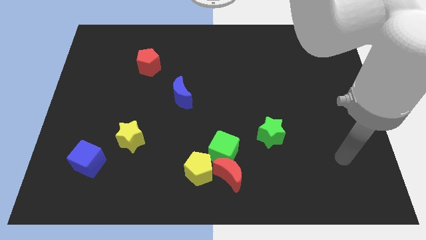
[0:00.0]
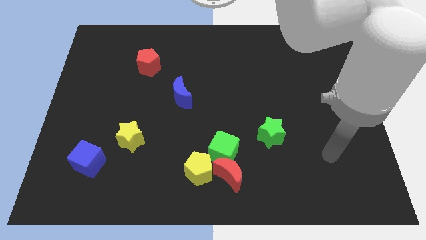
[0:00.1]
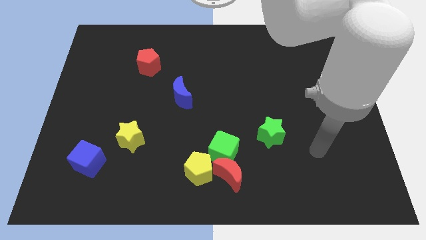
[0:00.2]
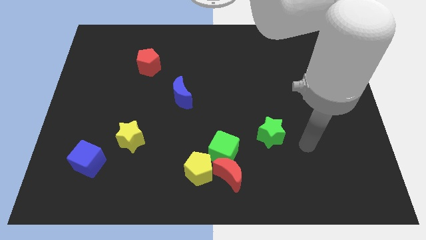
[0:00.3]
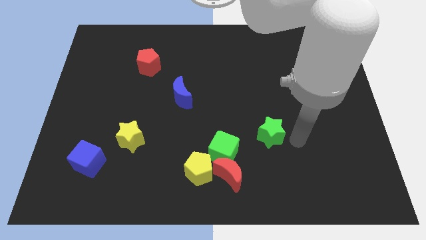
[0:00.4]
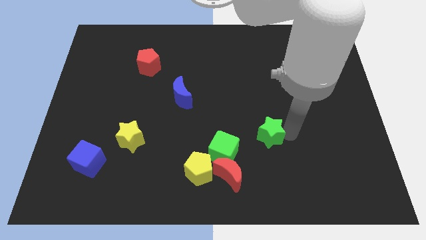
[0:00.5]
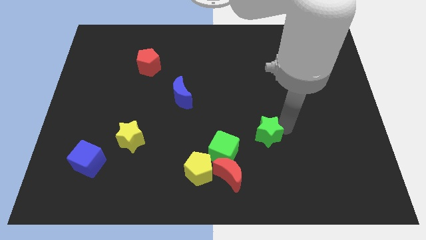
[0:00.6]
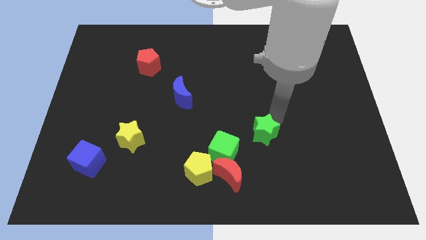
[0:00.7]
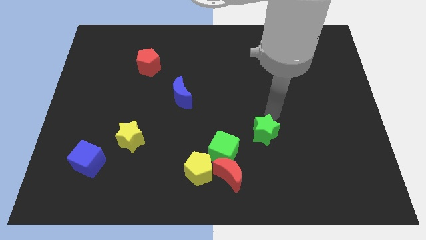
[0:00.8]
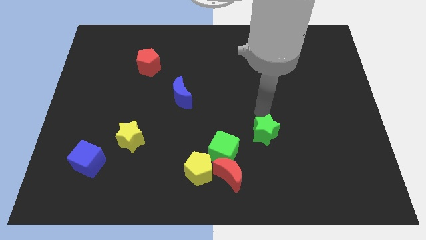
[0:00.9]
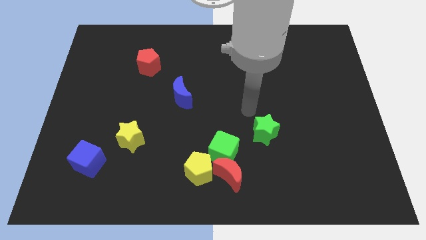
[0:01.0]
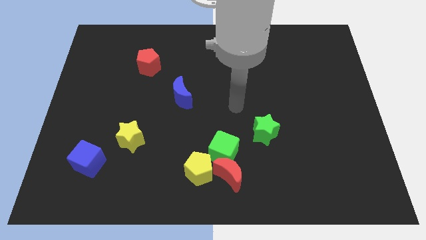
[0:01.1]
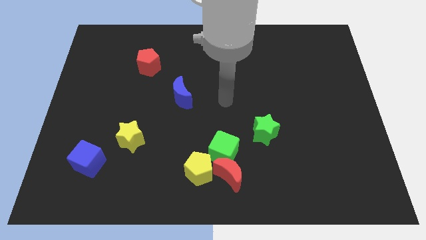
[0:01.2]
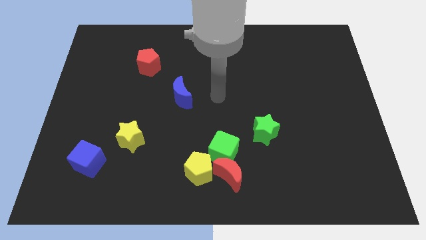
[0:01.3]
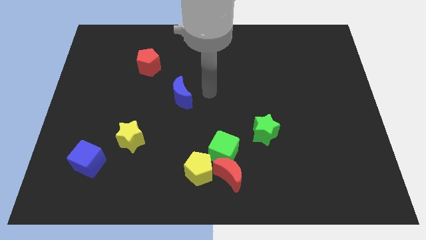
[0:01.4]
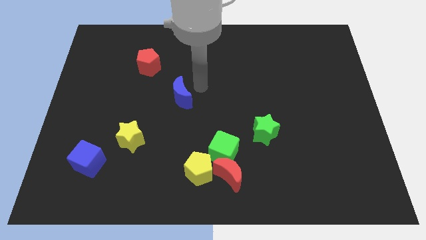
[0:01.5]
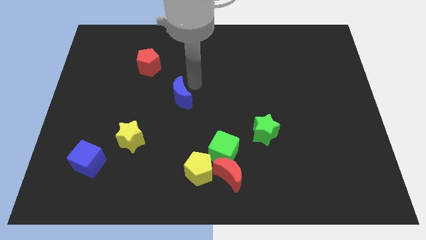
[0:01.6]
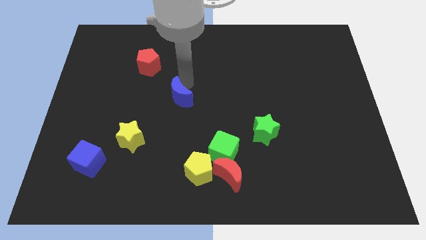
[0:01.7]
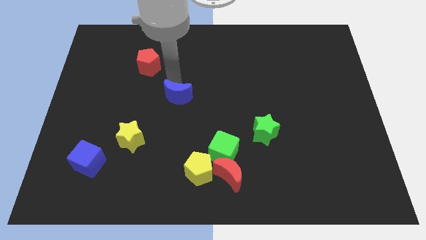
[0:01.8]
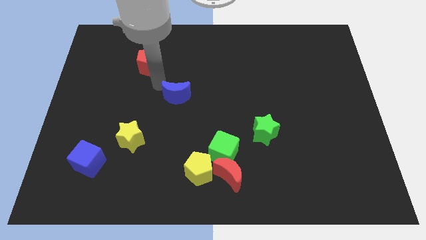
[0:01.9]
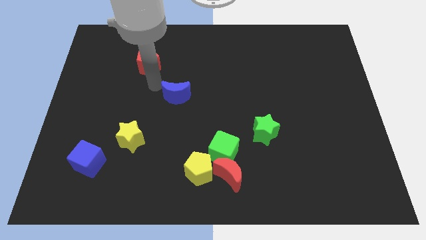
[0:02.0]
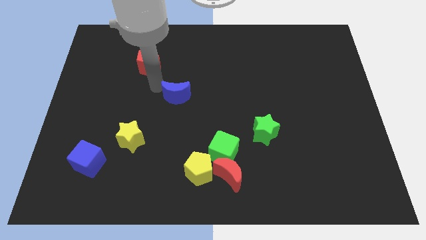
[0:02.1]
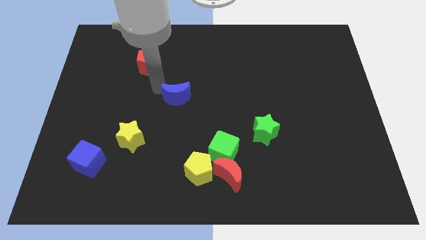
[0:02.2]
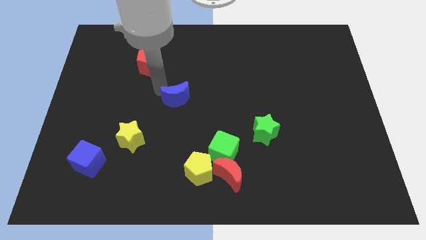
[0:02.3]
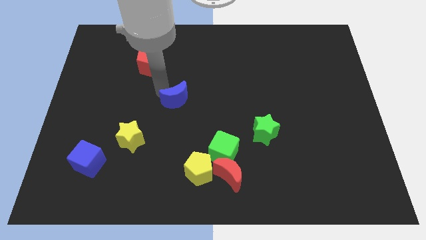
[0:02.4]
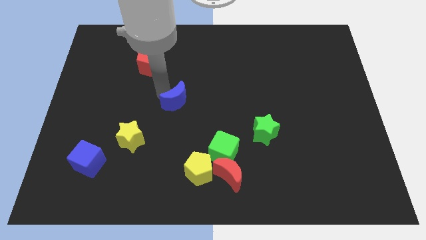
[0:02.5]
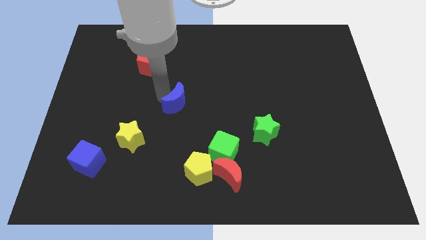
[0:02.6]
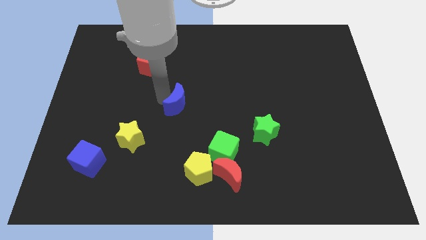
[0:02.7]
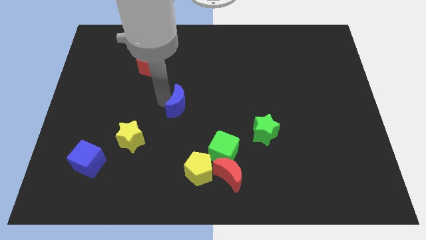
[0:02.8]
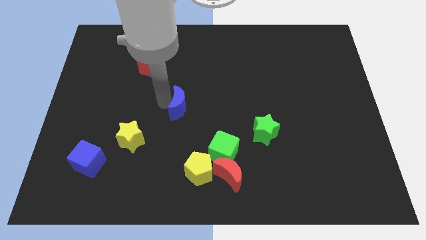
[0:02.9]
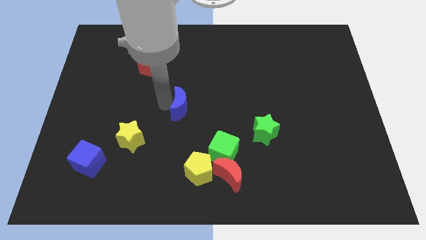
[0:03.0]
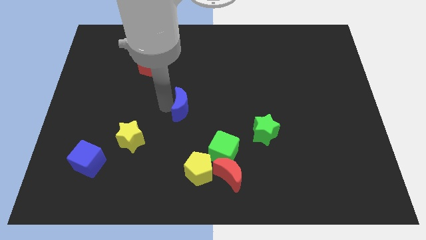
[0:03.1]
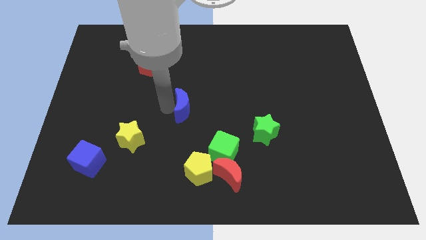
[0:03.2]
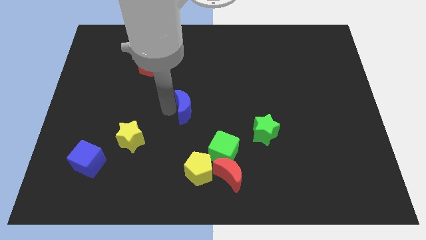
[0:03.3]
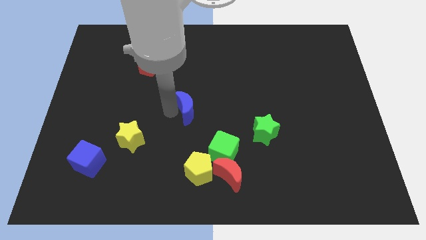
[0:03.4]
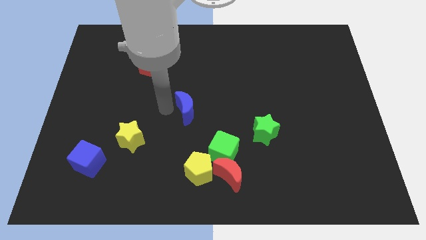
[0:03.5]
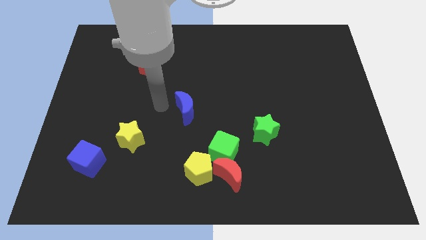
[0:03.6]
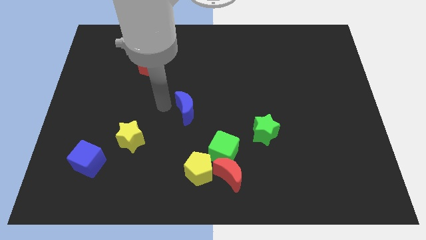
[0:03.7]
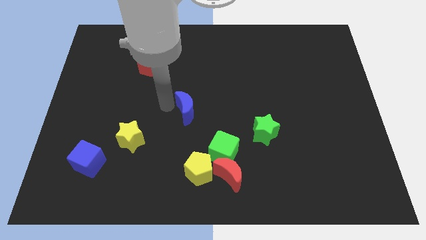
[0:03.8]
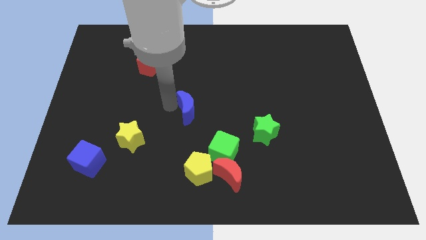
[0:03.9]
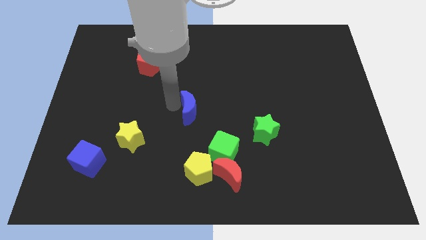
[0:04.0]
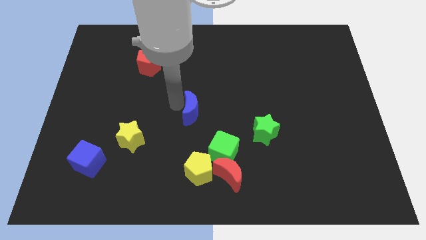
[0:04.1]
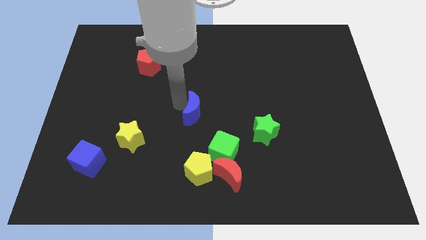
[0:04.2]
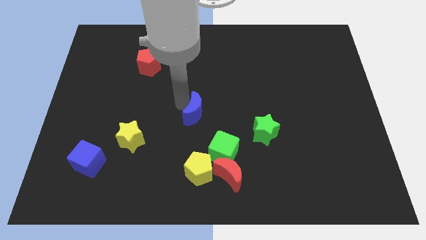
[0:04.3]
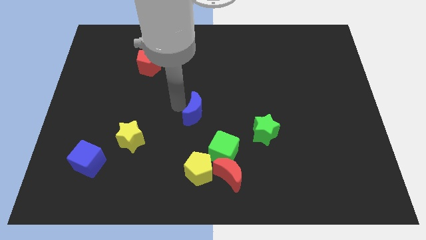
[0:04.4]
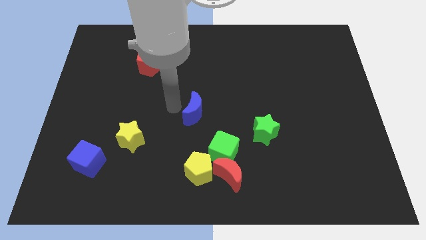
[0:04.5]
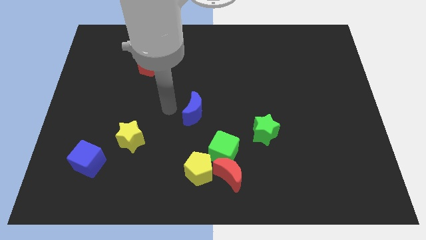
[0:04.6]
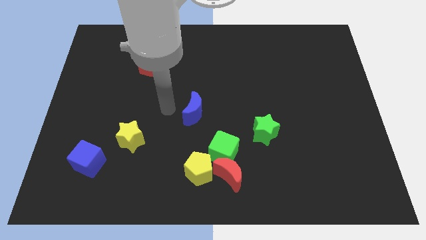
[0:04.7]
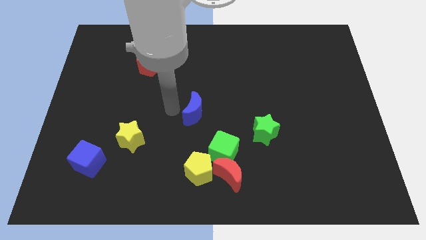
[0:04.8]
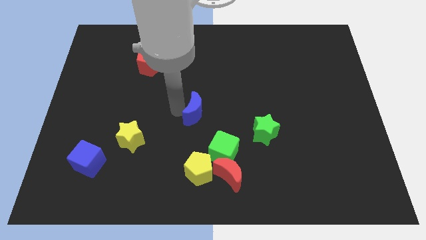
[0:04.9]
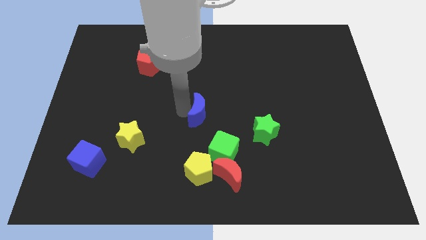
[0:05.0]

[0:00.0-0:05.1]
move the blue moon downwards and then to the right slightly

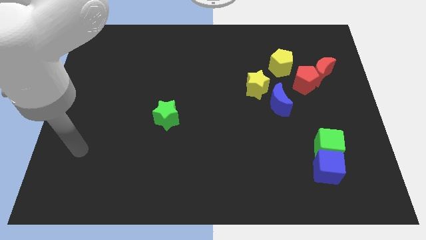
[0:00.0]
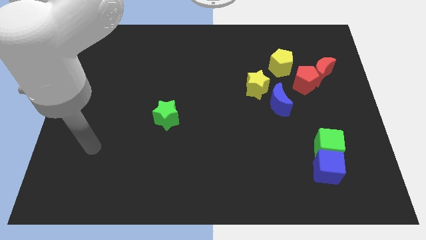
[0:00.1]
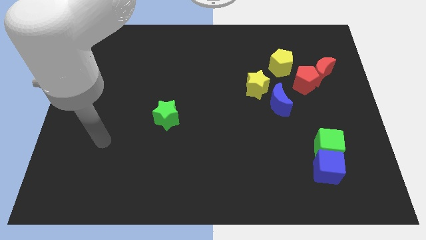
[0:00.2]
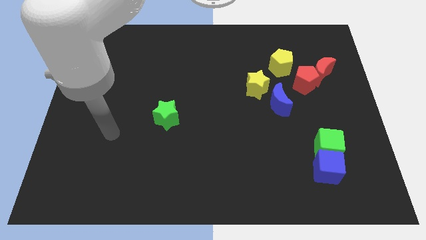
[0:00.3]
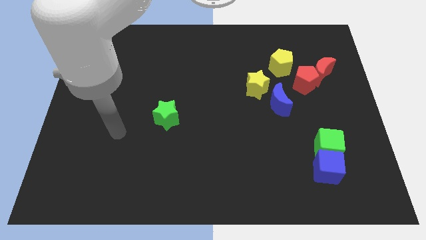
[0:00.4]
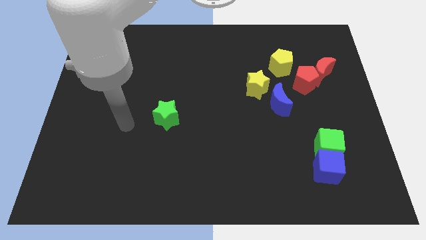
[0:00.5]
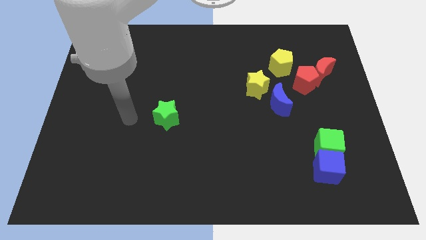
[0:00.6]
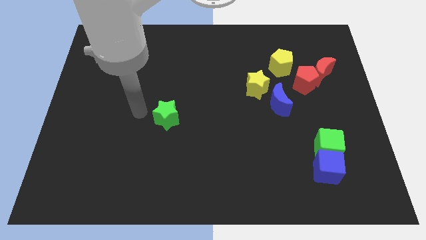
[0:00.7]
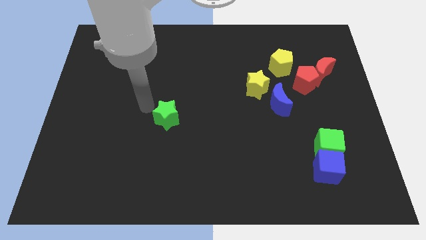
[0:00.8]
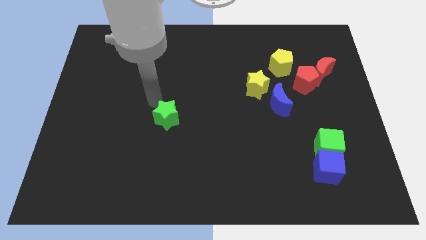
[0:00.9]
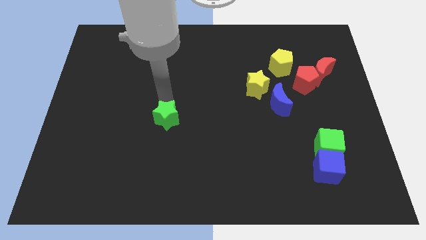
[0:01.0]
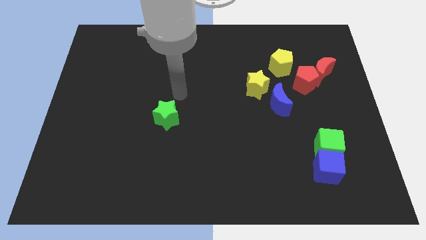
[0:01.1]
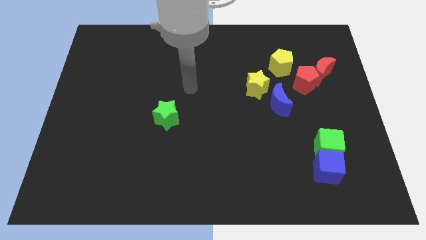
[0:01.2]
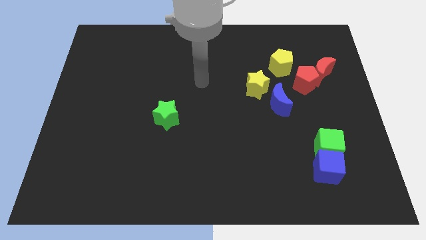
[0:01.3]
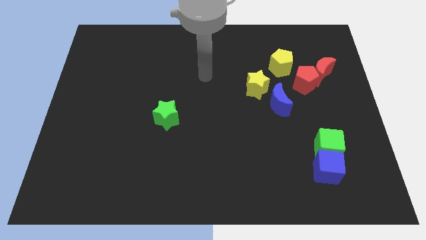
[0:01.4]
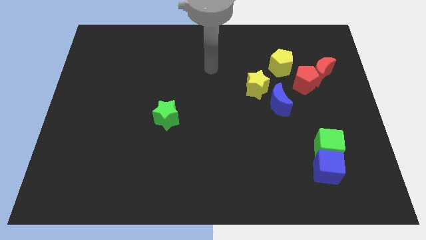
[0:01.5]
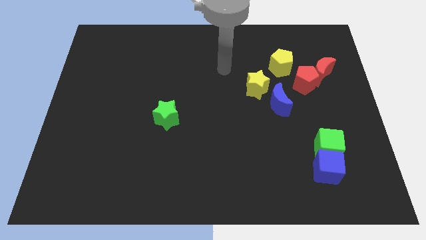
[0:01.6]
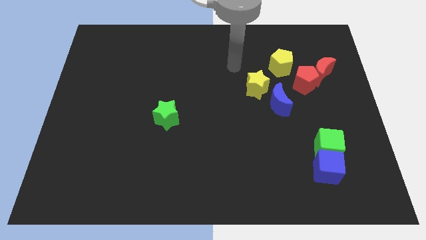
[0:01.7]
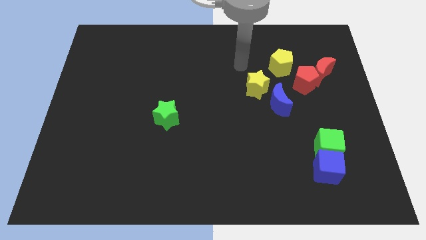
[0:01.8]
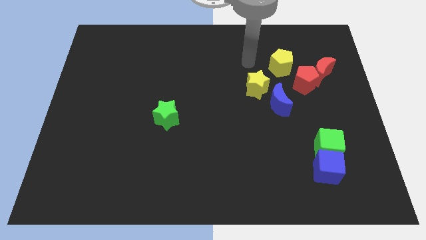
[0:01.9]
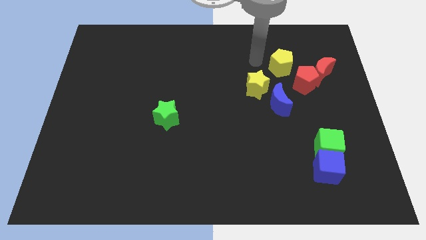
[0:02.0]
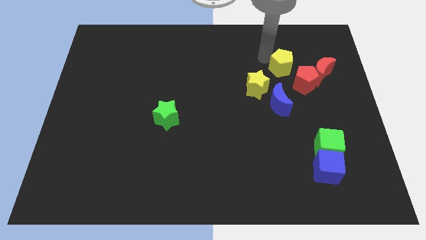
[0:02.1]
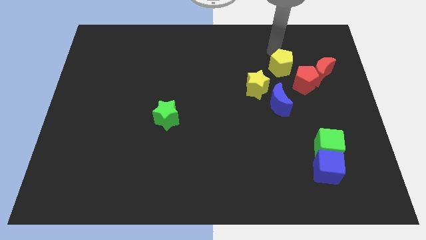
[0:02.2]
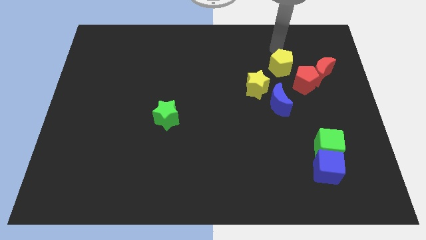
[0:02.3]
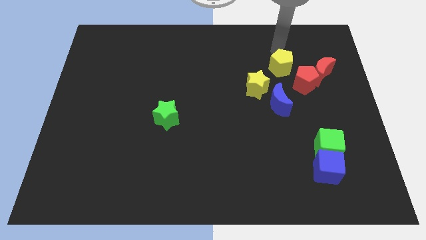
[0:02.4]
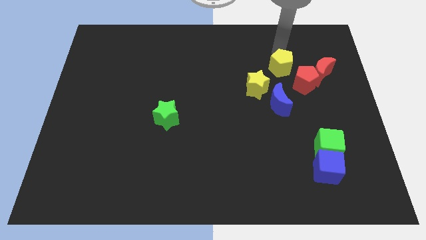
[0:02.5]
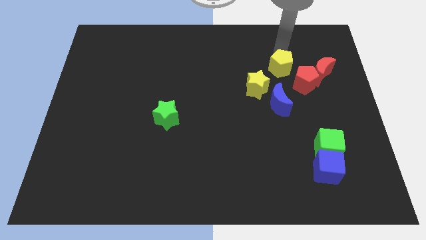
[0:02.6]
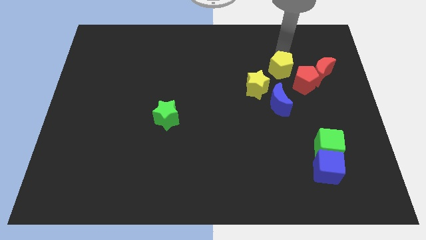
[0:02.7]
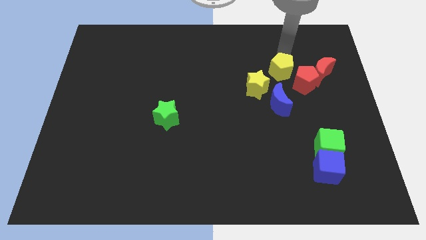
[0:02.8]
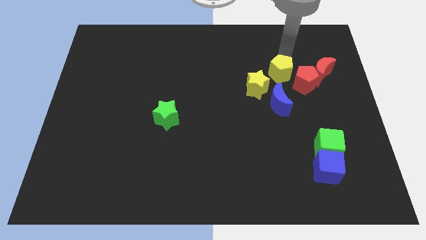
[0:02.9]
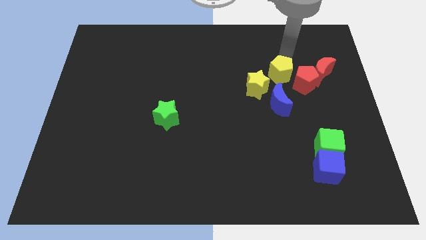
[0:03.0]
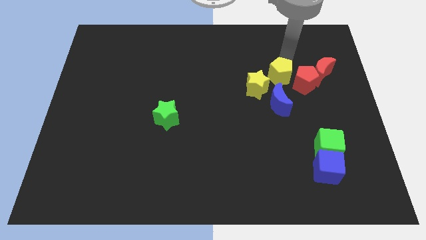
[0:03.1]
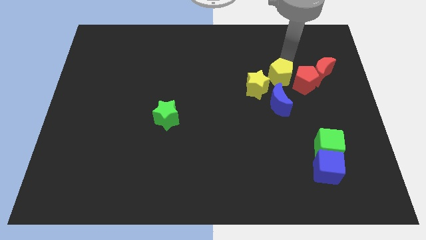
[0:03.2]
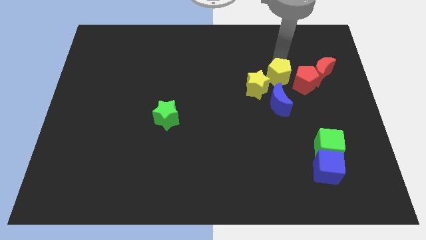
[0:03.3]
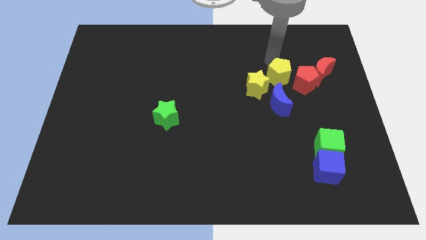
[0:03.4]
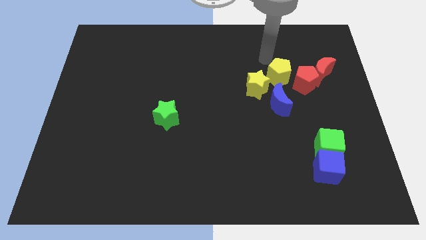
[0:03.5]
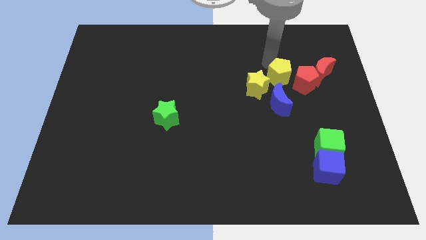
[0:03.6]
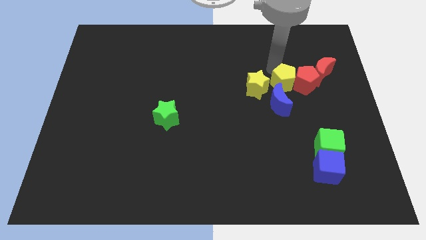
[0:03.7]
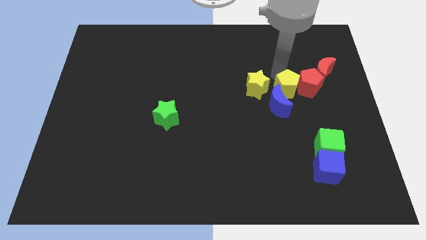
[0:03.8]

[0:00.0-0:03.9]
push the yellow pentagon downwards slightly
